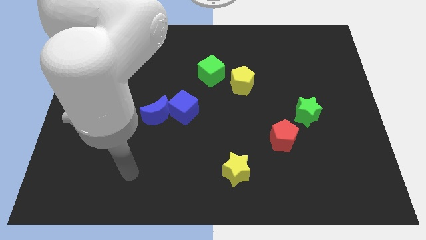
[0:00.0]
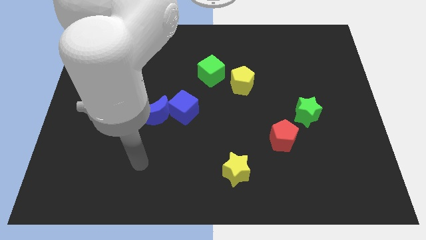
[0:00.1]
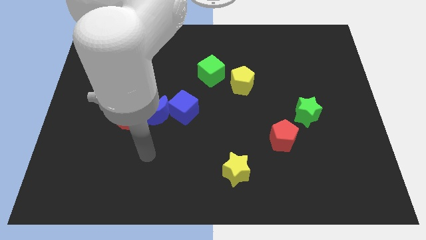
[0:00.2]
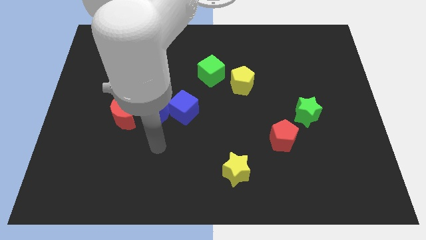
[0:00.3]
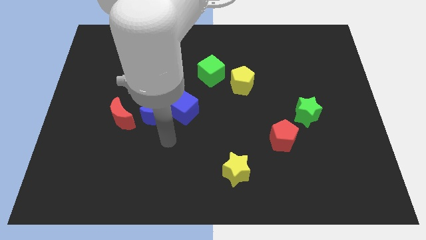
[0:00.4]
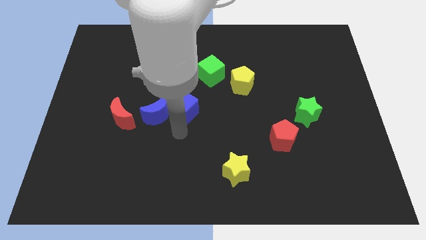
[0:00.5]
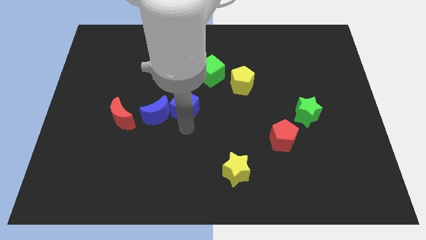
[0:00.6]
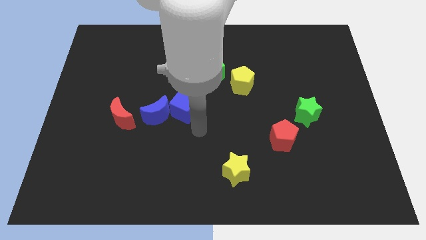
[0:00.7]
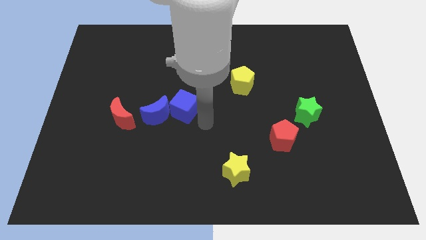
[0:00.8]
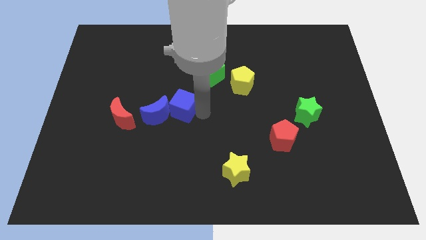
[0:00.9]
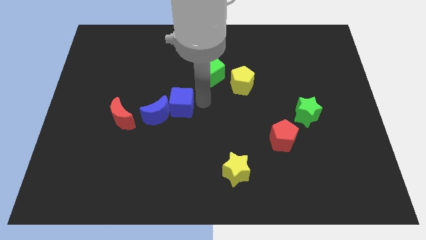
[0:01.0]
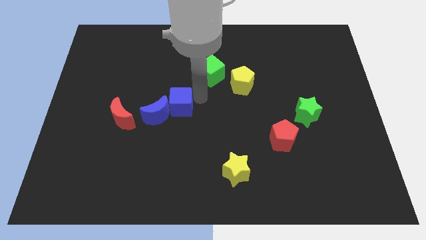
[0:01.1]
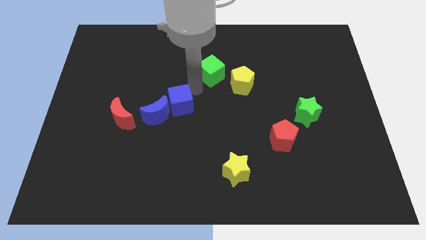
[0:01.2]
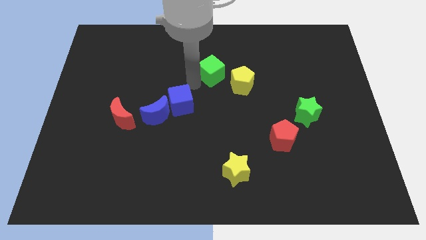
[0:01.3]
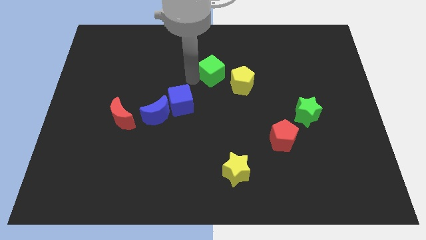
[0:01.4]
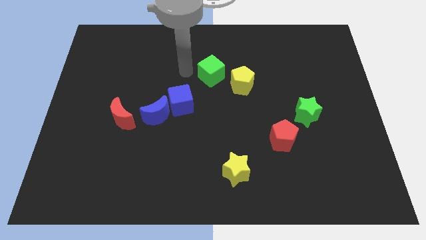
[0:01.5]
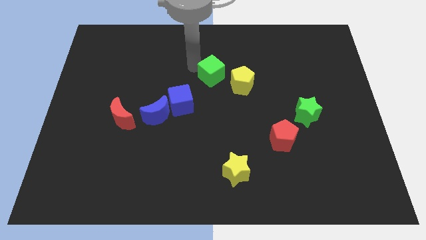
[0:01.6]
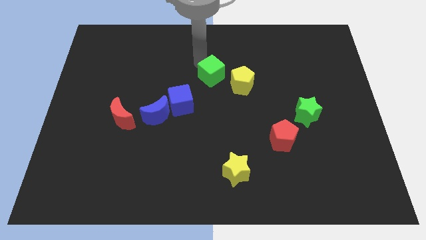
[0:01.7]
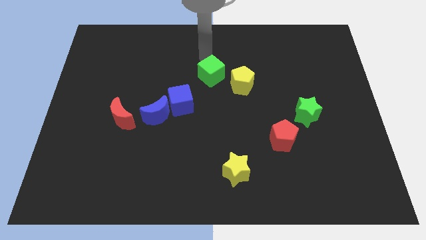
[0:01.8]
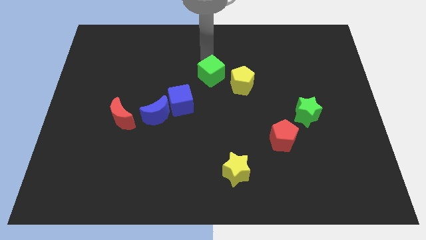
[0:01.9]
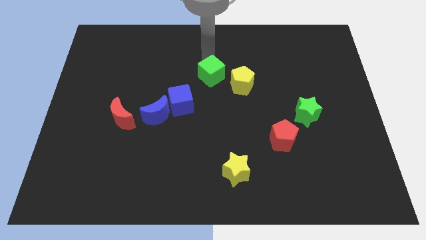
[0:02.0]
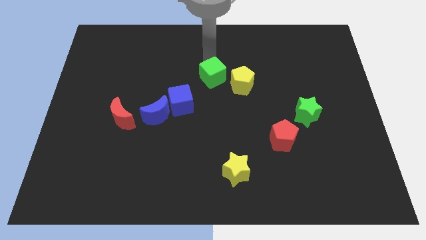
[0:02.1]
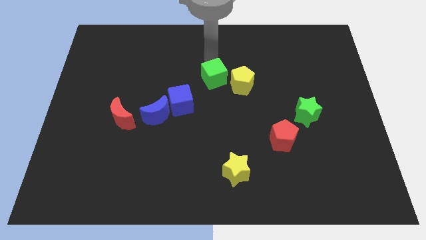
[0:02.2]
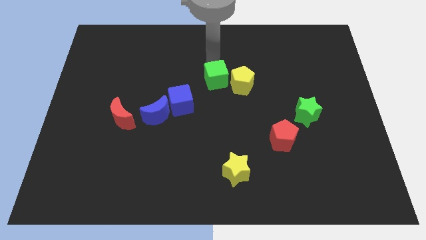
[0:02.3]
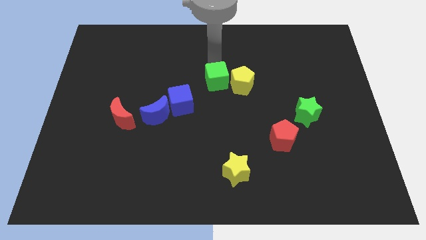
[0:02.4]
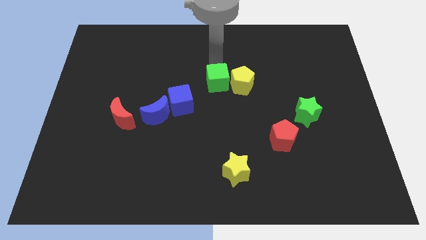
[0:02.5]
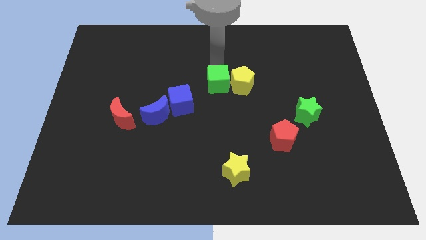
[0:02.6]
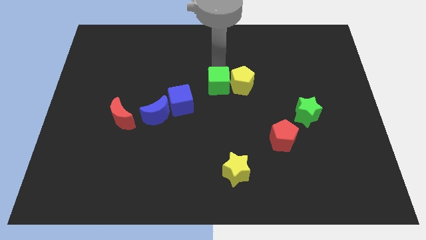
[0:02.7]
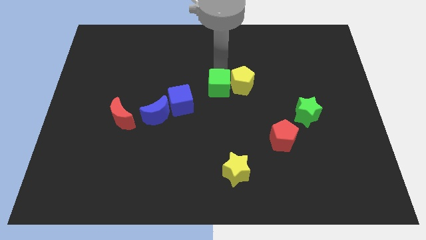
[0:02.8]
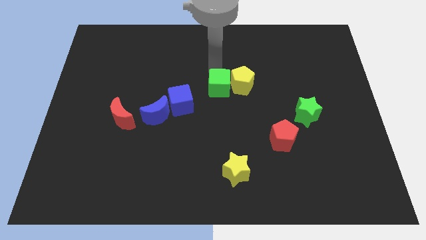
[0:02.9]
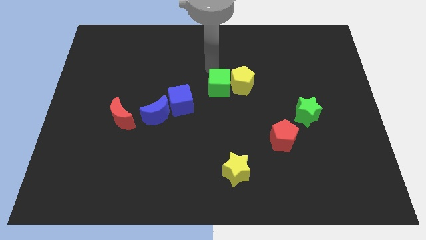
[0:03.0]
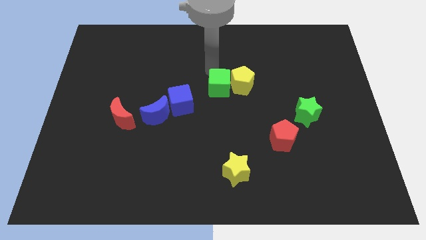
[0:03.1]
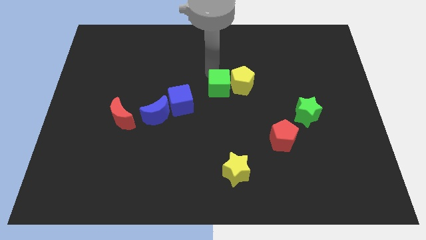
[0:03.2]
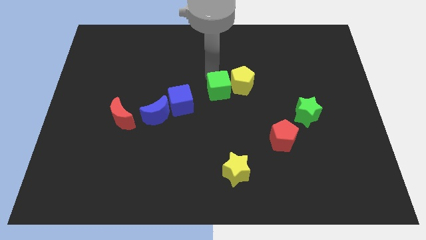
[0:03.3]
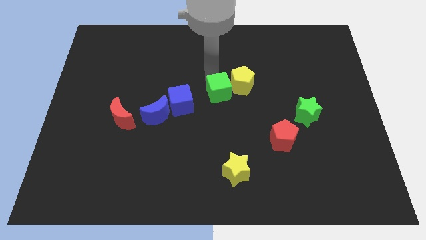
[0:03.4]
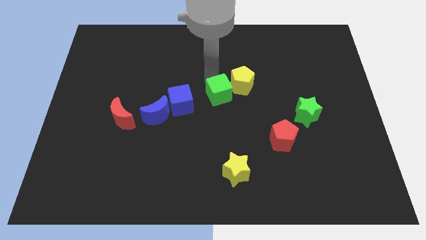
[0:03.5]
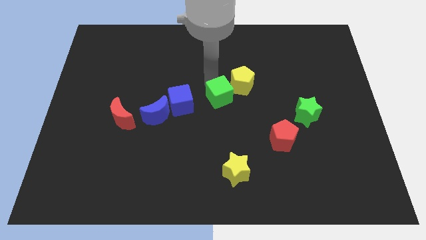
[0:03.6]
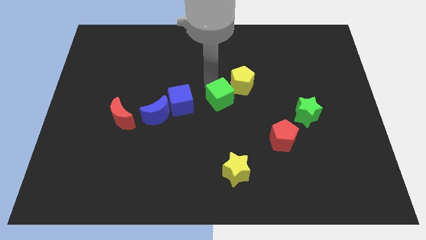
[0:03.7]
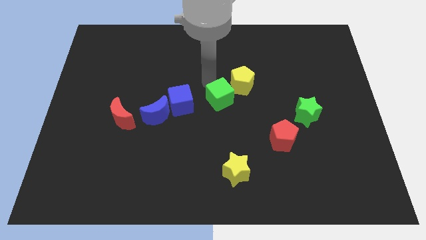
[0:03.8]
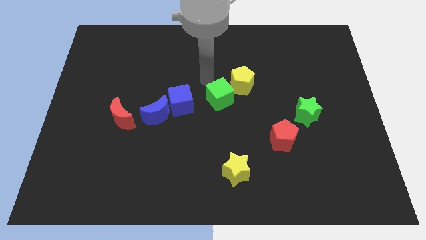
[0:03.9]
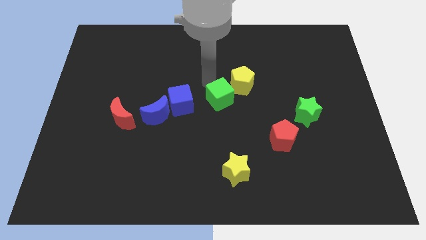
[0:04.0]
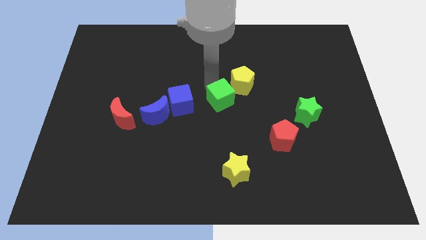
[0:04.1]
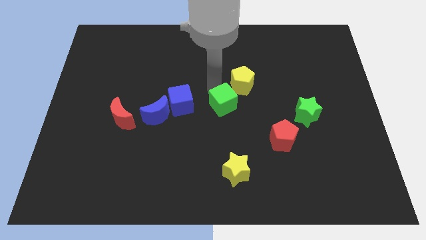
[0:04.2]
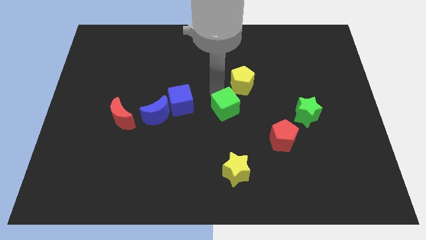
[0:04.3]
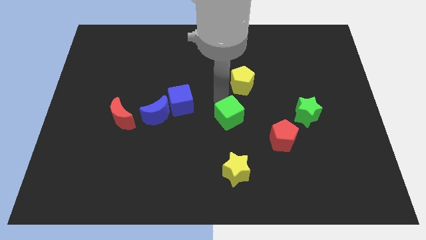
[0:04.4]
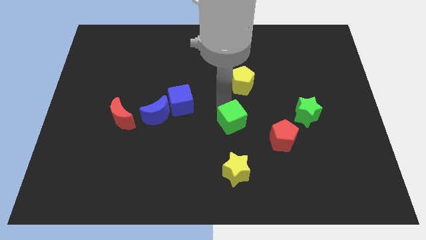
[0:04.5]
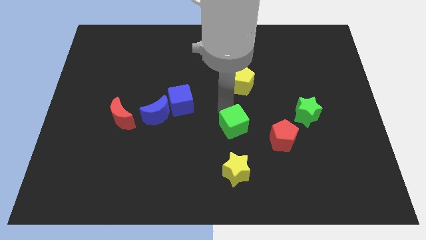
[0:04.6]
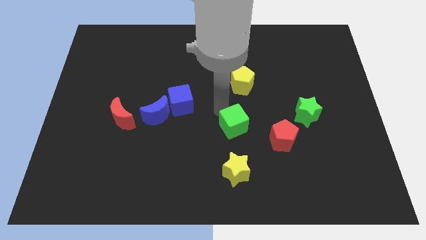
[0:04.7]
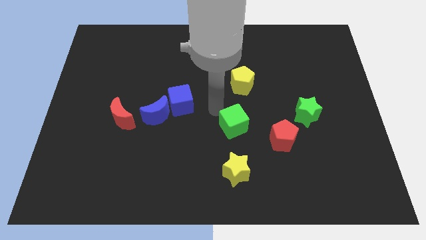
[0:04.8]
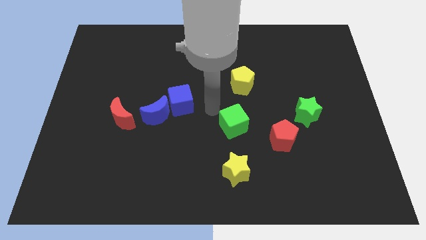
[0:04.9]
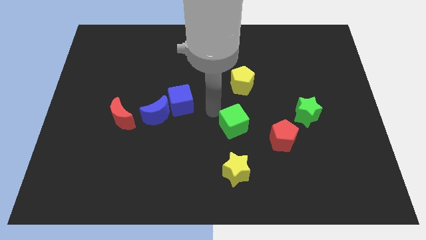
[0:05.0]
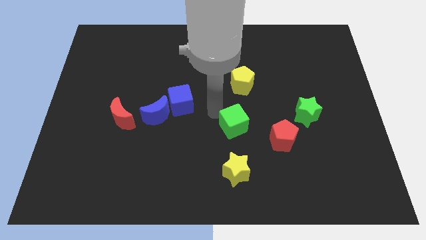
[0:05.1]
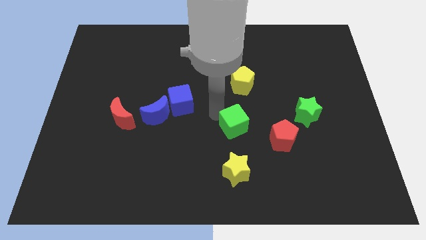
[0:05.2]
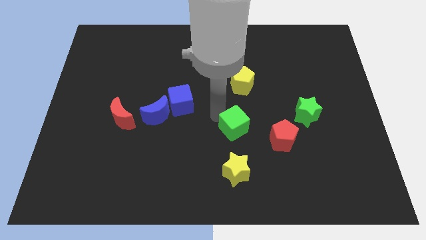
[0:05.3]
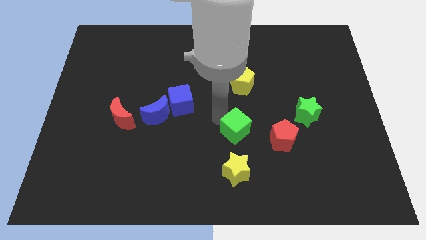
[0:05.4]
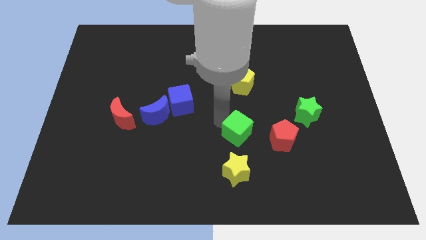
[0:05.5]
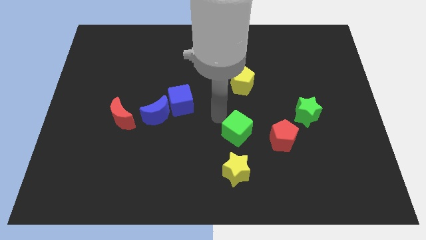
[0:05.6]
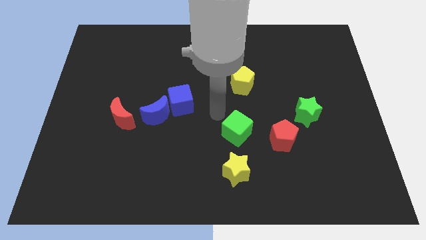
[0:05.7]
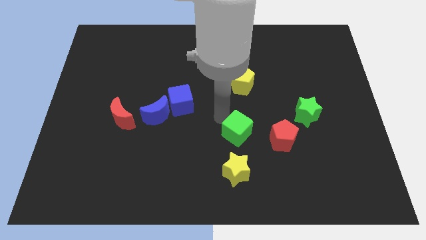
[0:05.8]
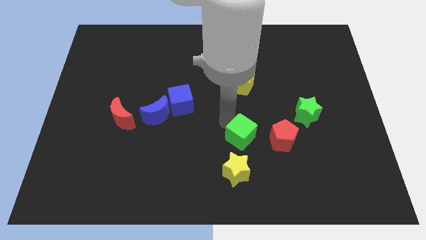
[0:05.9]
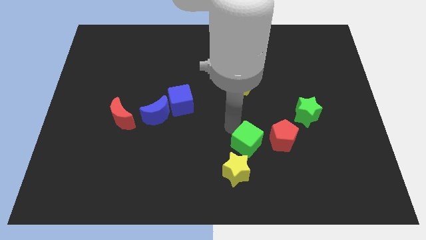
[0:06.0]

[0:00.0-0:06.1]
push the green cube to the top right of the yellow star
